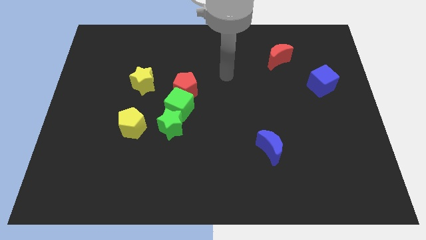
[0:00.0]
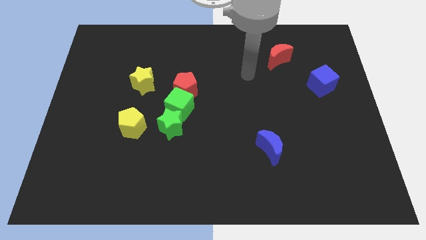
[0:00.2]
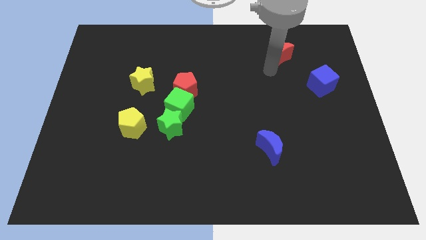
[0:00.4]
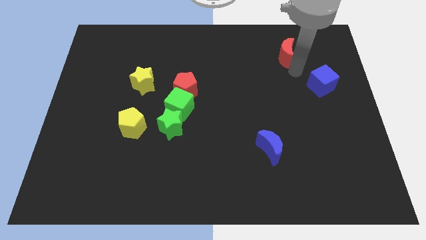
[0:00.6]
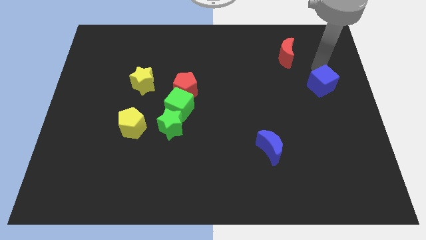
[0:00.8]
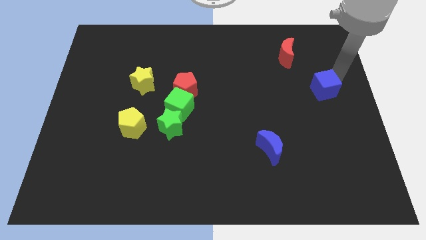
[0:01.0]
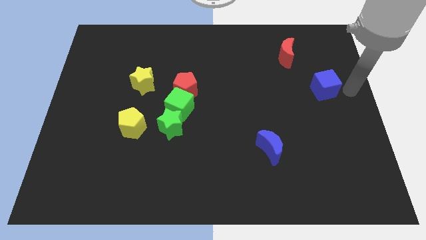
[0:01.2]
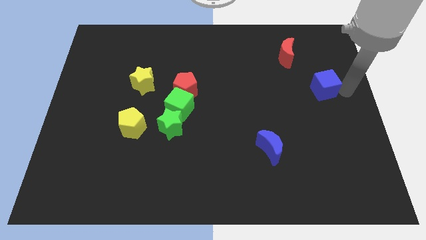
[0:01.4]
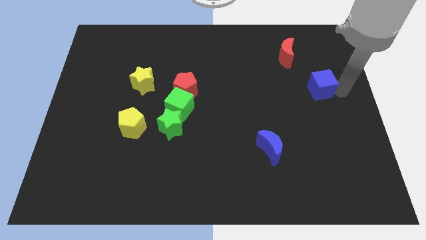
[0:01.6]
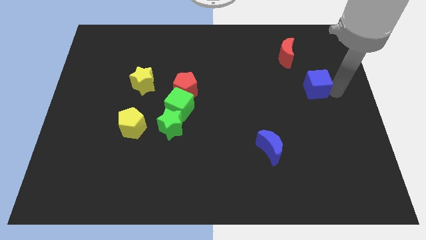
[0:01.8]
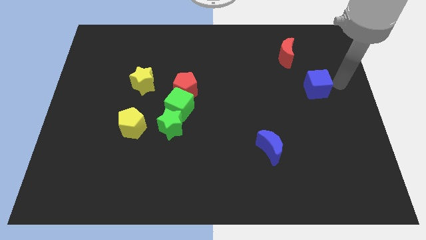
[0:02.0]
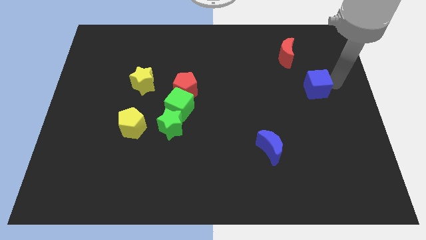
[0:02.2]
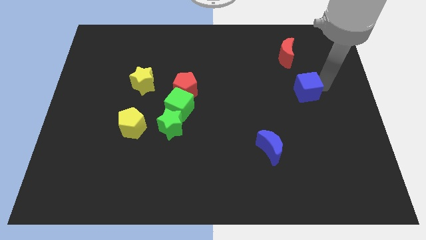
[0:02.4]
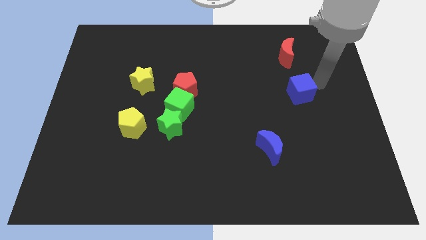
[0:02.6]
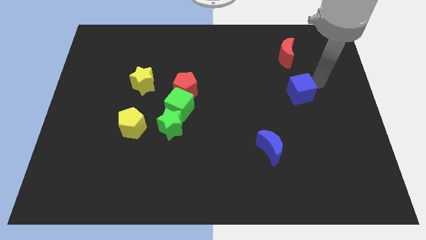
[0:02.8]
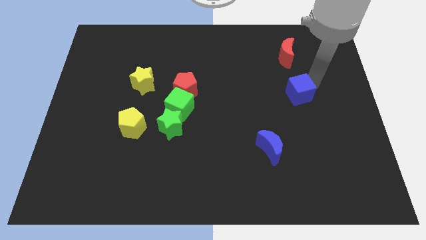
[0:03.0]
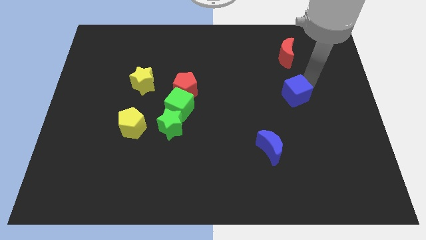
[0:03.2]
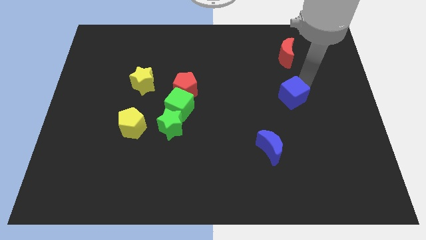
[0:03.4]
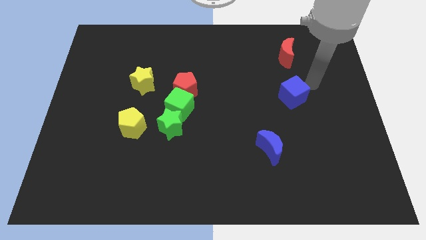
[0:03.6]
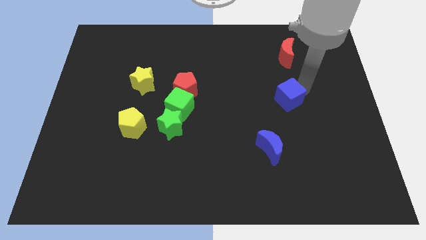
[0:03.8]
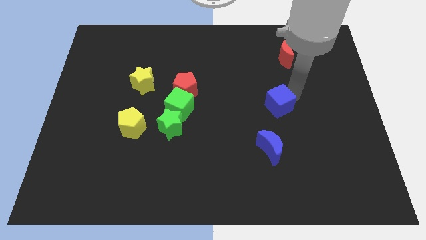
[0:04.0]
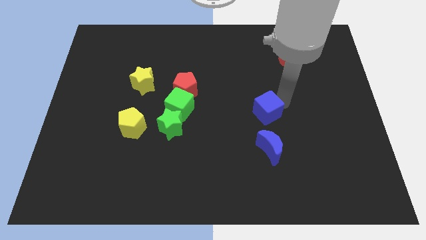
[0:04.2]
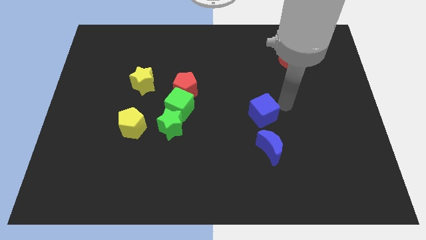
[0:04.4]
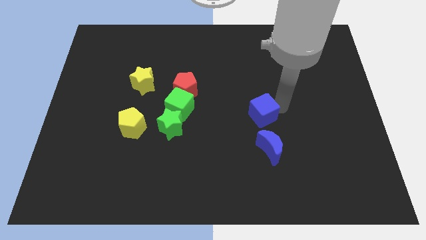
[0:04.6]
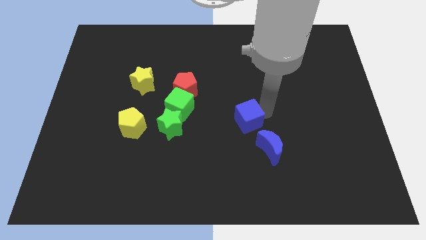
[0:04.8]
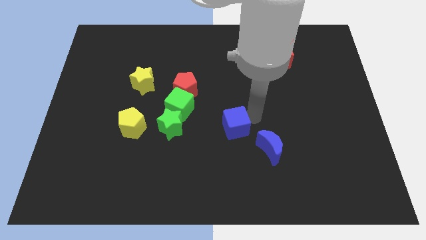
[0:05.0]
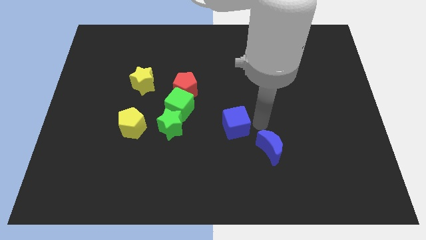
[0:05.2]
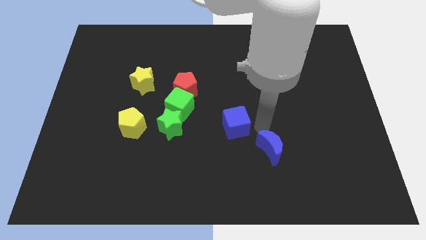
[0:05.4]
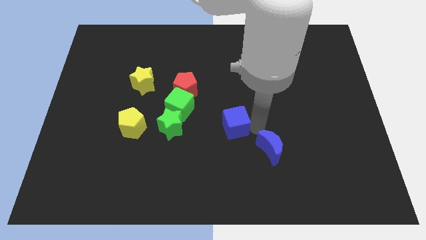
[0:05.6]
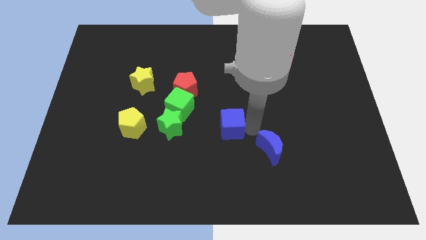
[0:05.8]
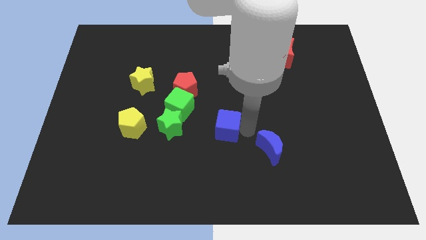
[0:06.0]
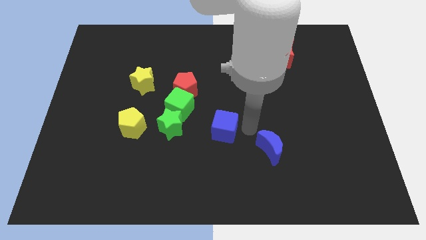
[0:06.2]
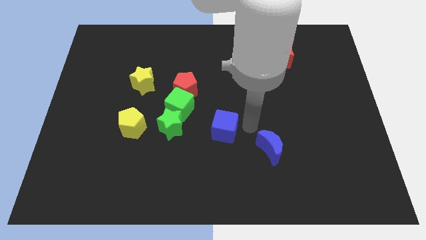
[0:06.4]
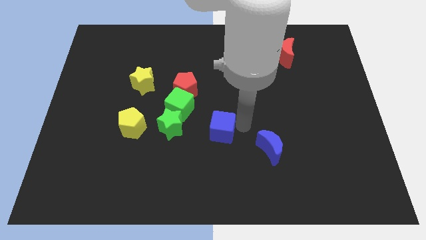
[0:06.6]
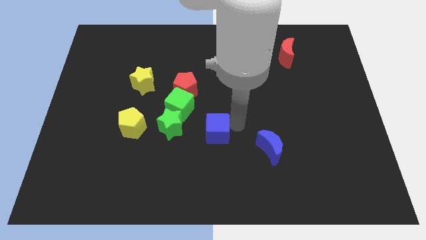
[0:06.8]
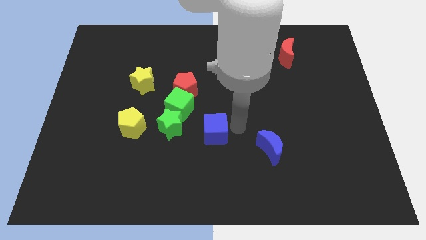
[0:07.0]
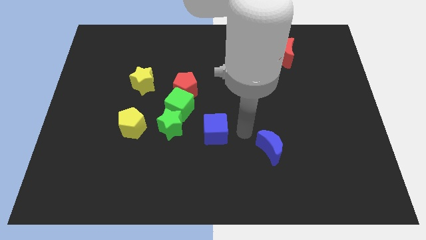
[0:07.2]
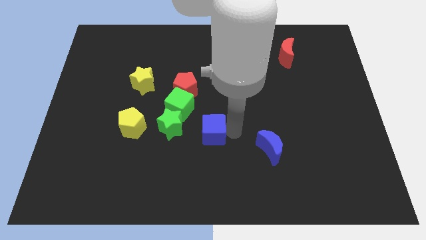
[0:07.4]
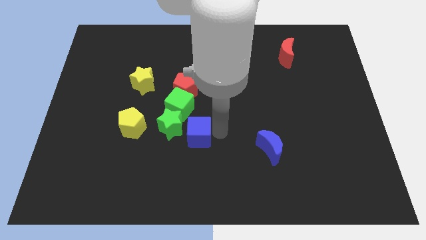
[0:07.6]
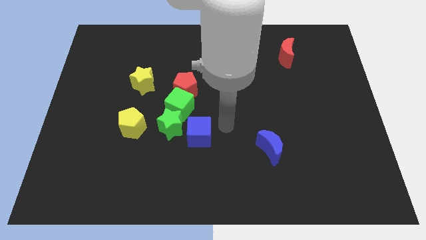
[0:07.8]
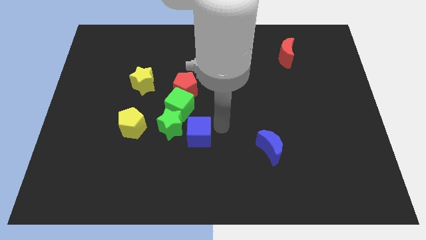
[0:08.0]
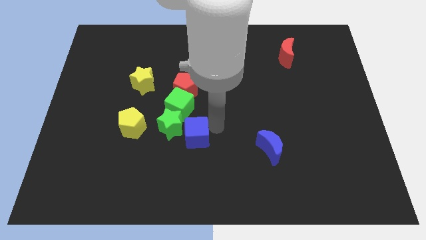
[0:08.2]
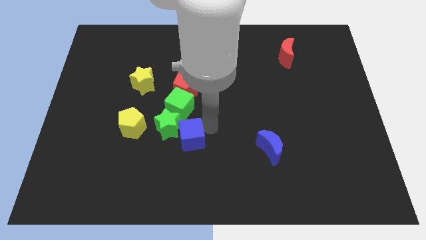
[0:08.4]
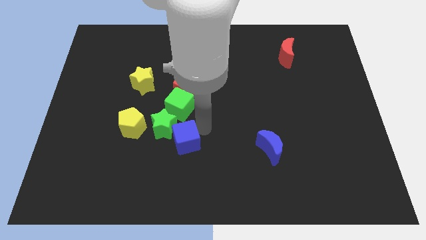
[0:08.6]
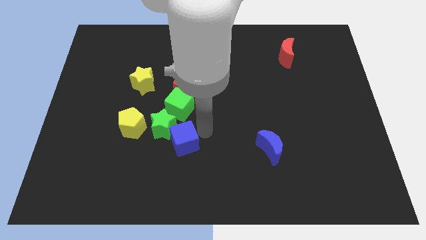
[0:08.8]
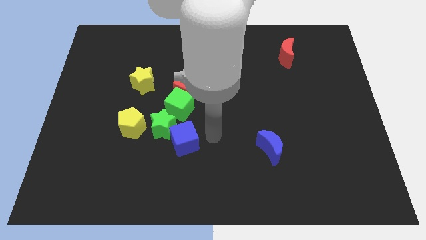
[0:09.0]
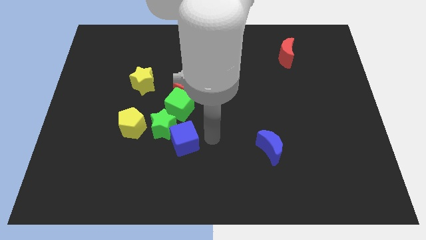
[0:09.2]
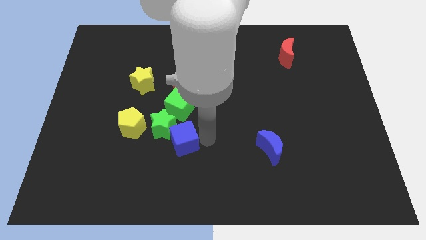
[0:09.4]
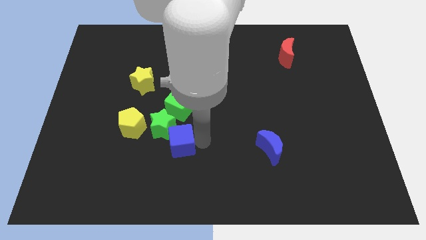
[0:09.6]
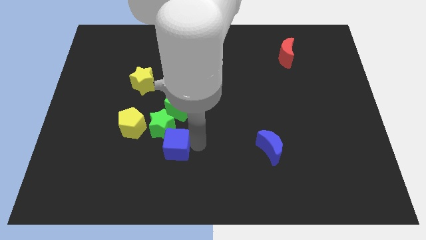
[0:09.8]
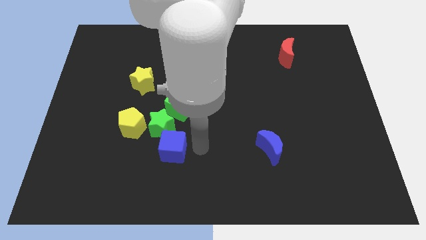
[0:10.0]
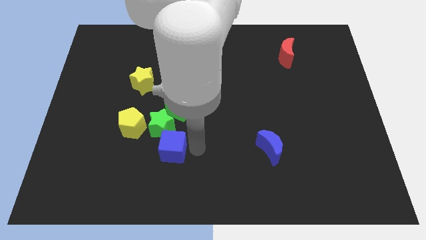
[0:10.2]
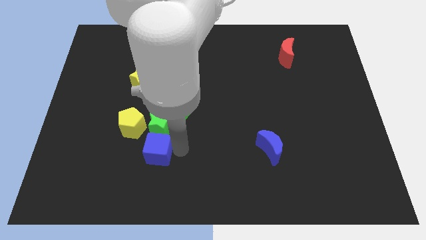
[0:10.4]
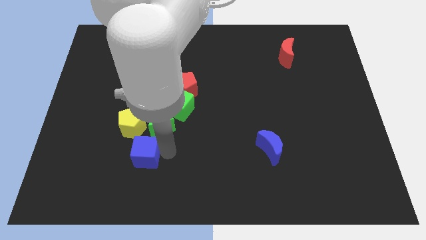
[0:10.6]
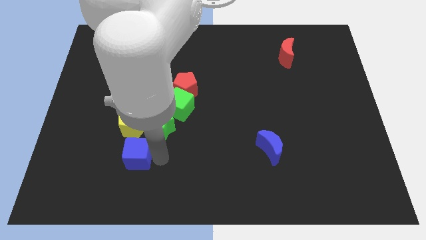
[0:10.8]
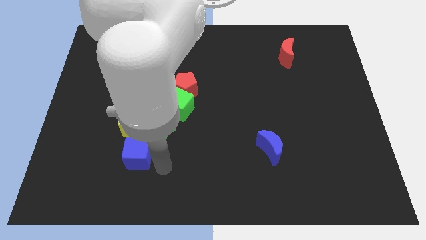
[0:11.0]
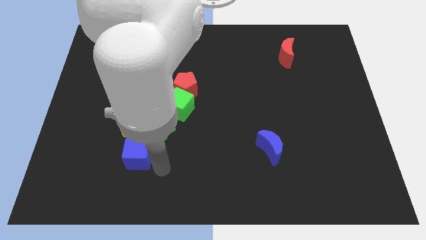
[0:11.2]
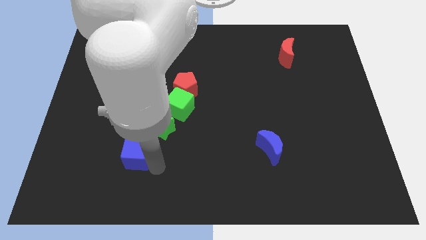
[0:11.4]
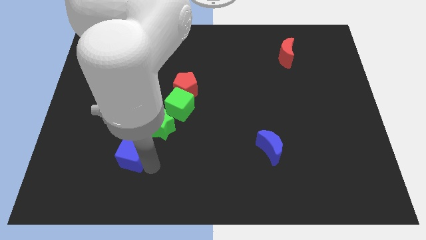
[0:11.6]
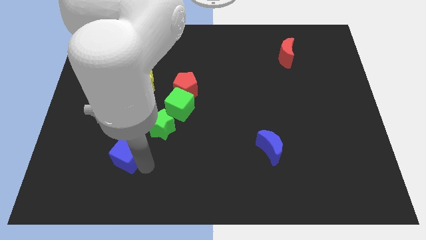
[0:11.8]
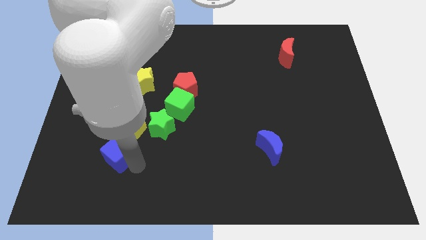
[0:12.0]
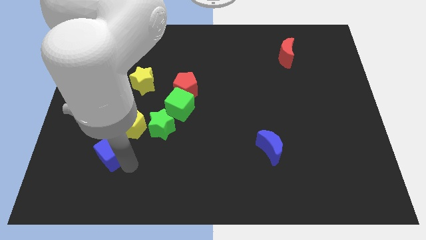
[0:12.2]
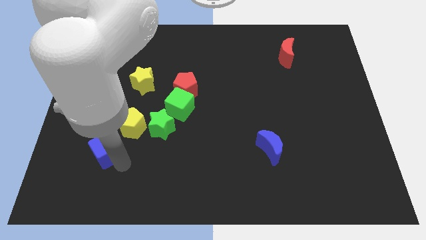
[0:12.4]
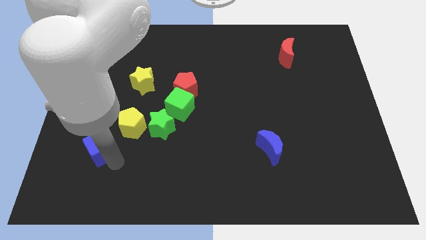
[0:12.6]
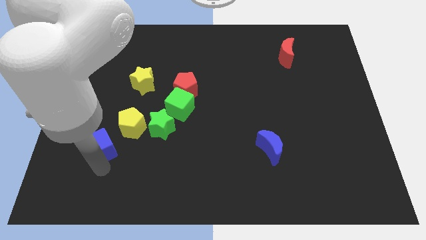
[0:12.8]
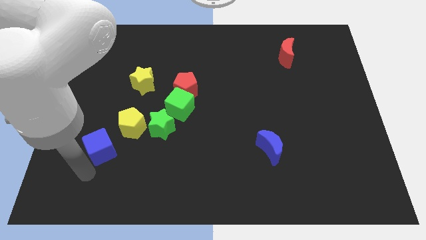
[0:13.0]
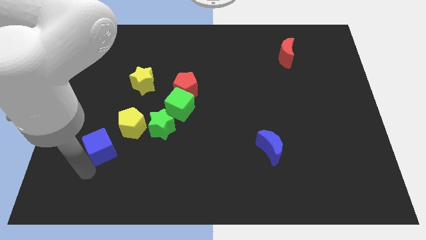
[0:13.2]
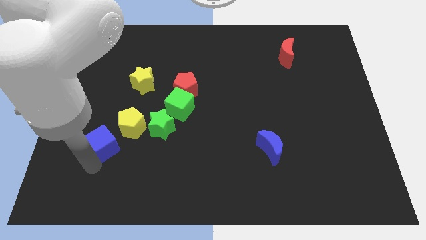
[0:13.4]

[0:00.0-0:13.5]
move the blue cube to the left of the green star
